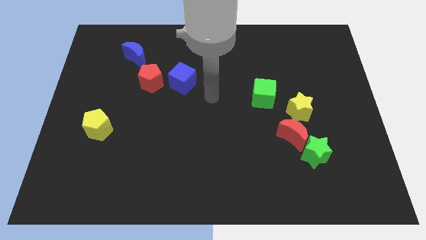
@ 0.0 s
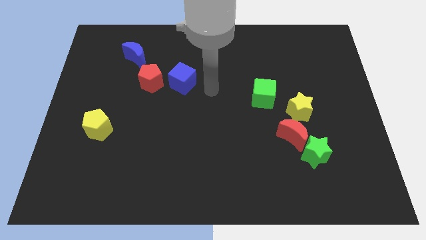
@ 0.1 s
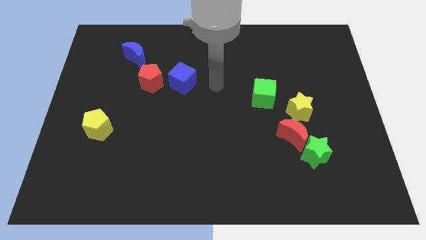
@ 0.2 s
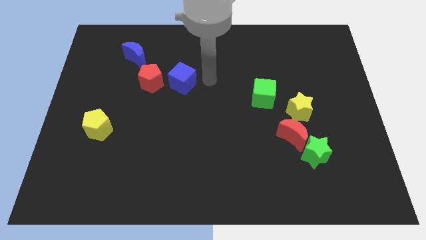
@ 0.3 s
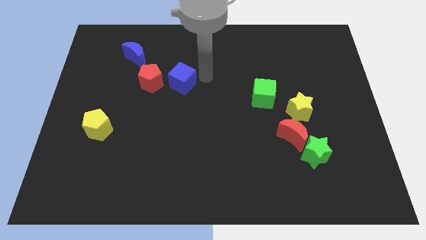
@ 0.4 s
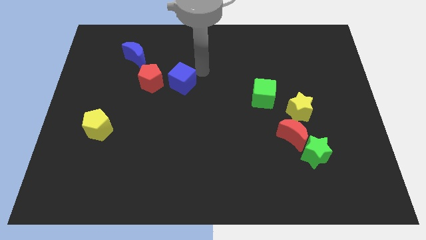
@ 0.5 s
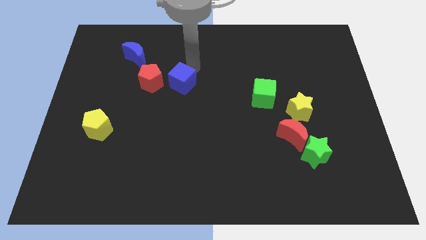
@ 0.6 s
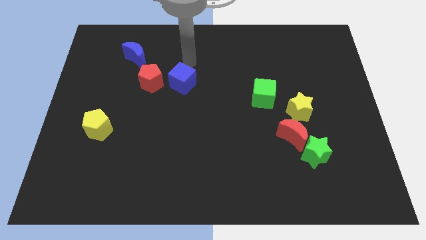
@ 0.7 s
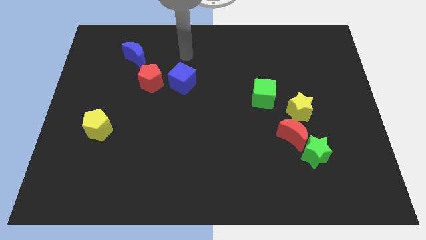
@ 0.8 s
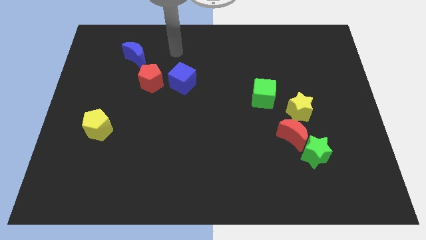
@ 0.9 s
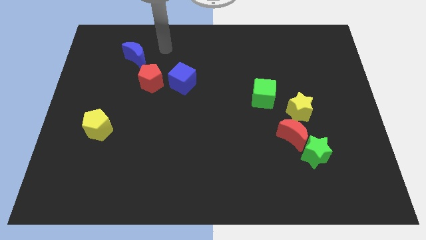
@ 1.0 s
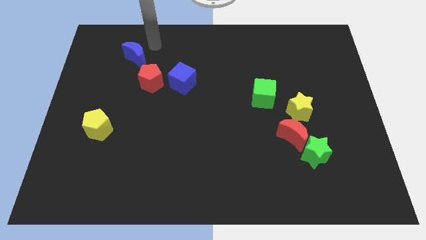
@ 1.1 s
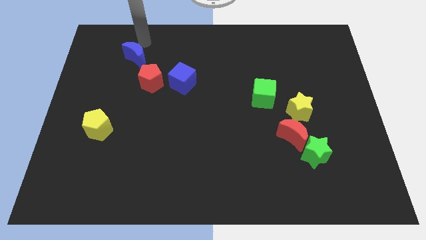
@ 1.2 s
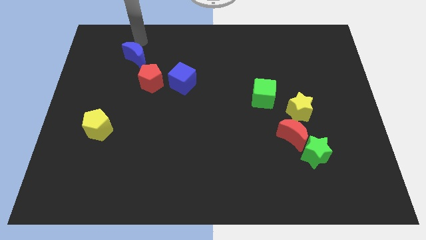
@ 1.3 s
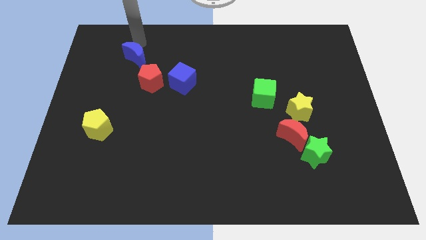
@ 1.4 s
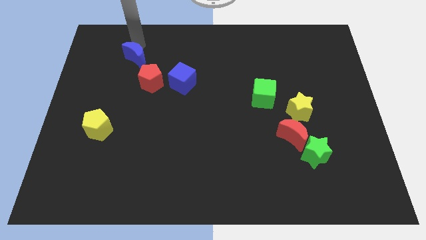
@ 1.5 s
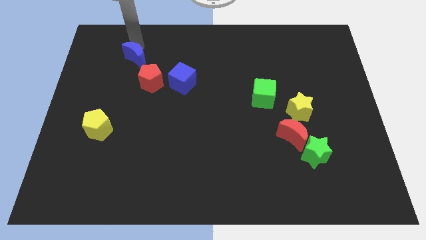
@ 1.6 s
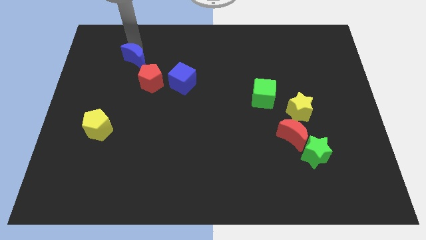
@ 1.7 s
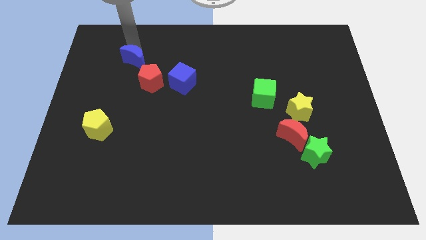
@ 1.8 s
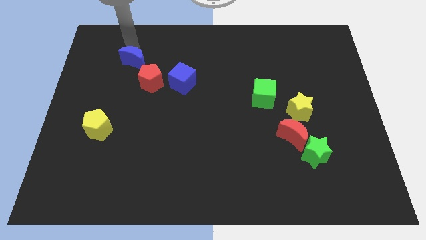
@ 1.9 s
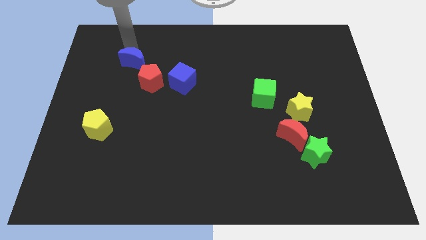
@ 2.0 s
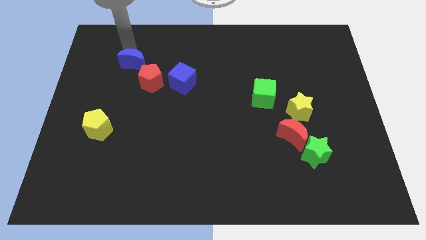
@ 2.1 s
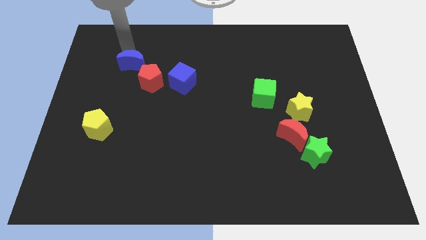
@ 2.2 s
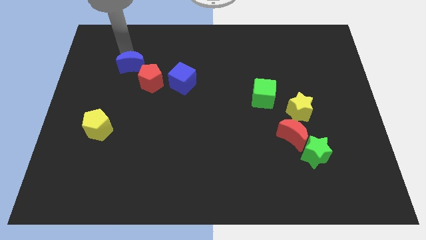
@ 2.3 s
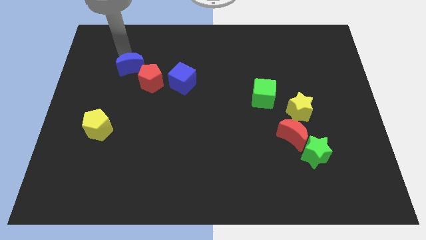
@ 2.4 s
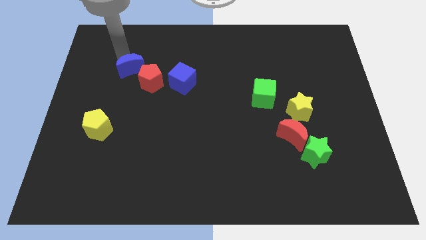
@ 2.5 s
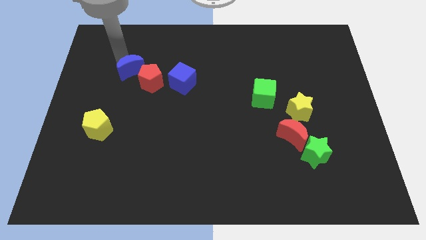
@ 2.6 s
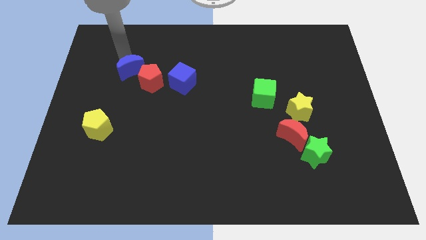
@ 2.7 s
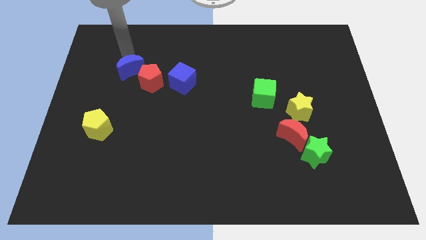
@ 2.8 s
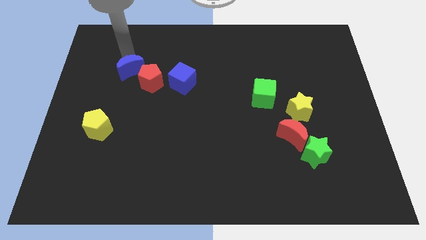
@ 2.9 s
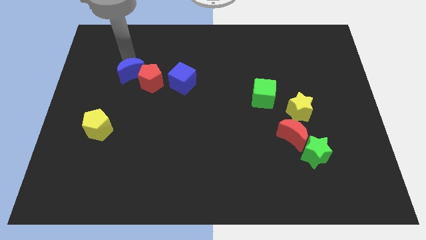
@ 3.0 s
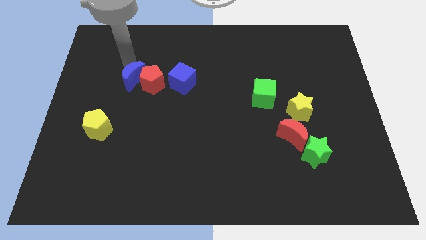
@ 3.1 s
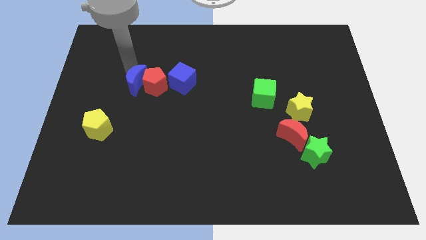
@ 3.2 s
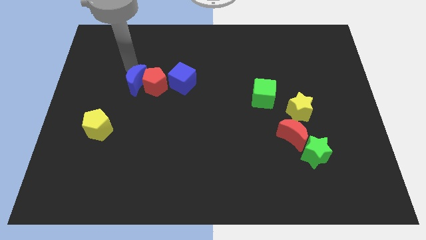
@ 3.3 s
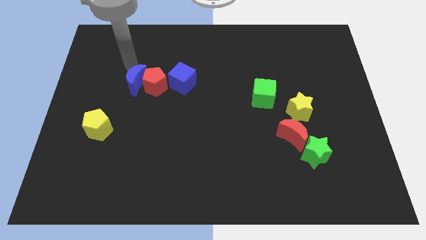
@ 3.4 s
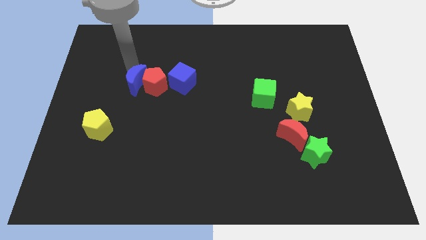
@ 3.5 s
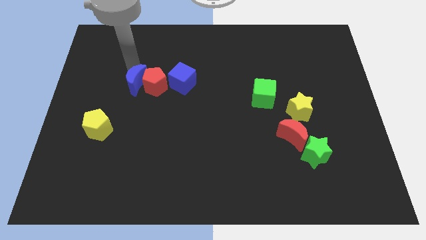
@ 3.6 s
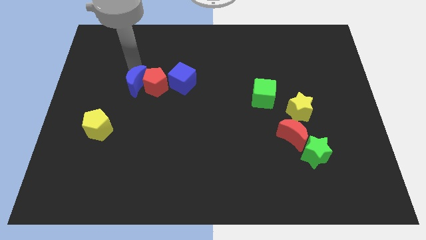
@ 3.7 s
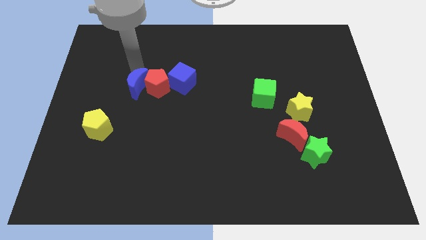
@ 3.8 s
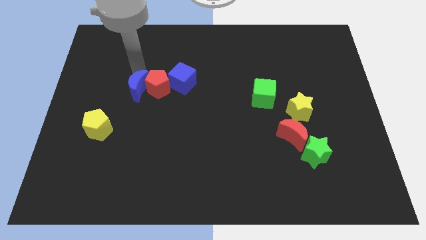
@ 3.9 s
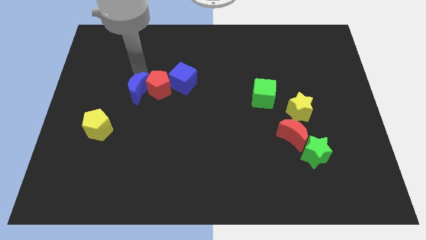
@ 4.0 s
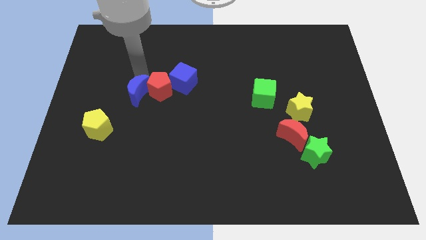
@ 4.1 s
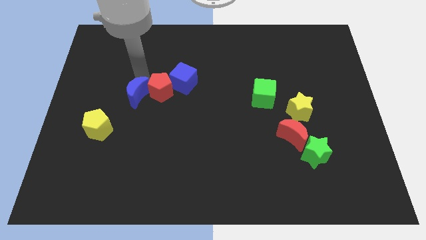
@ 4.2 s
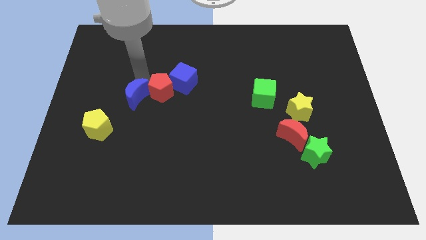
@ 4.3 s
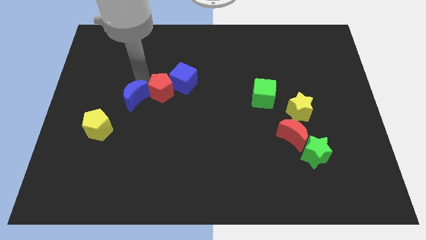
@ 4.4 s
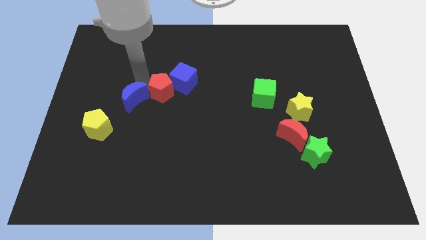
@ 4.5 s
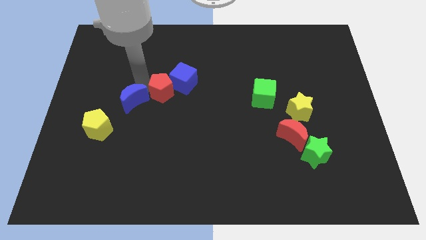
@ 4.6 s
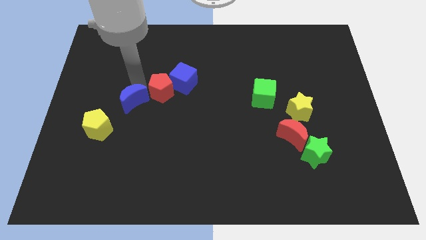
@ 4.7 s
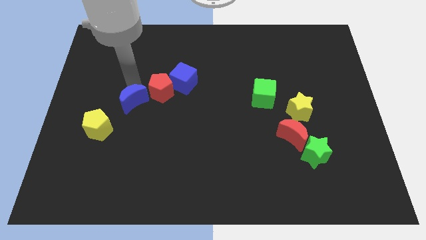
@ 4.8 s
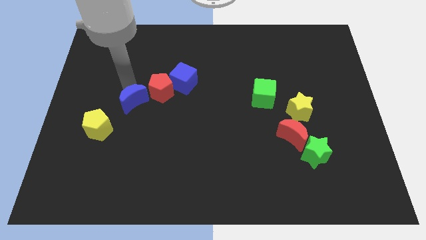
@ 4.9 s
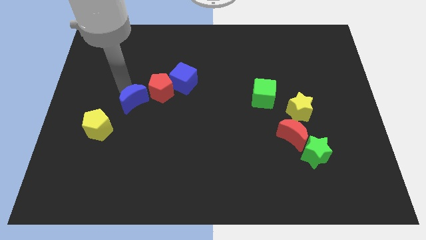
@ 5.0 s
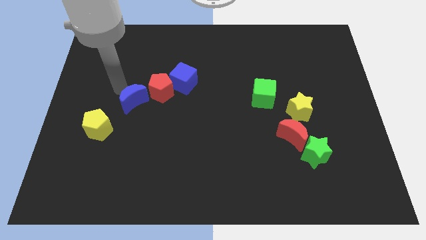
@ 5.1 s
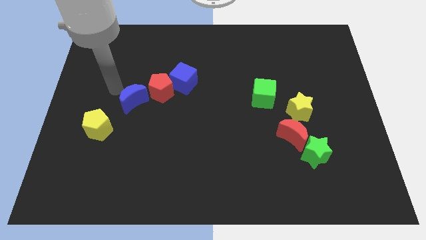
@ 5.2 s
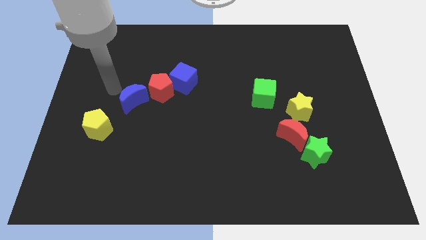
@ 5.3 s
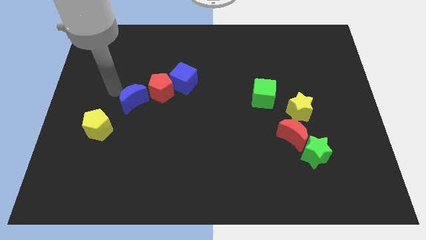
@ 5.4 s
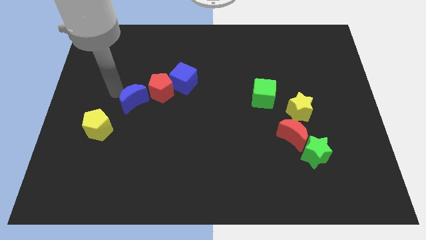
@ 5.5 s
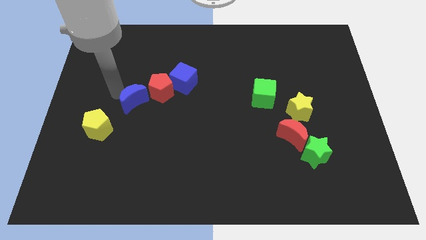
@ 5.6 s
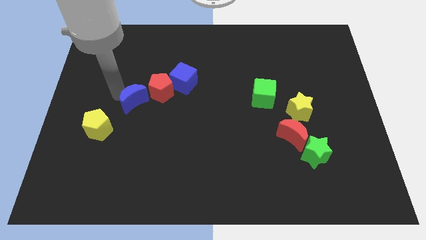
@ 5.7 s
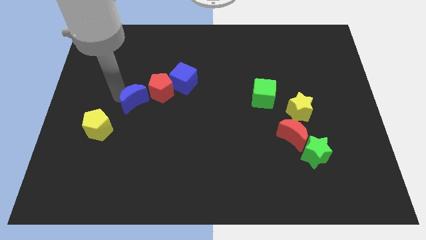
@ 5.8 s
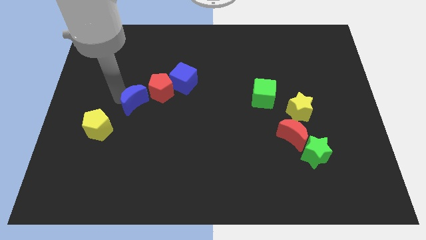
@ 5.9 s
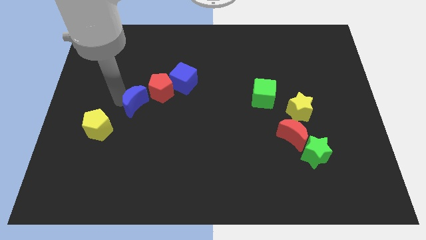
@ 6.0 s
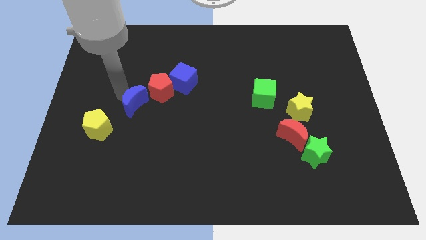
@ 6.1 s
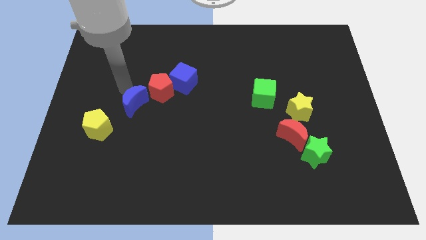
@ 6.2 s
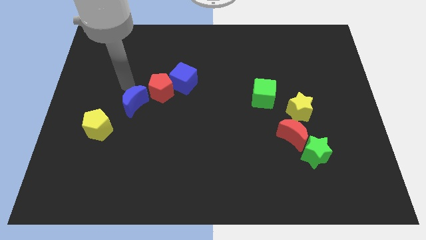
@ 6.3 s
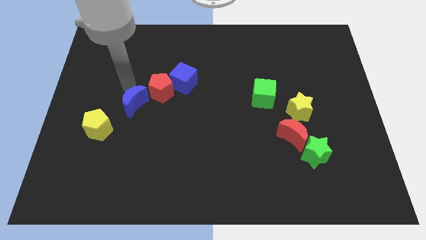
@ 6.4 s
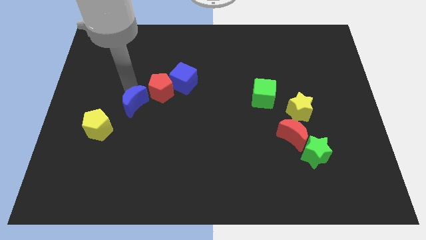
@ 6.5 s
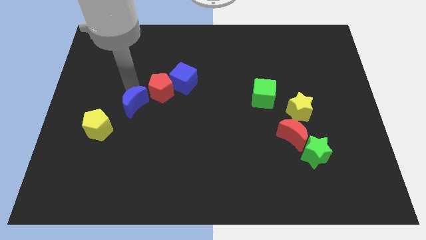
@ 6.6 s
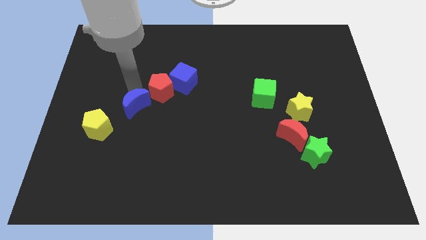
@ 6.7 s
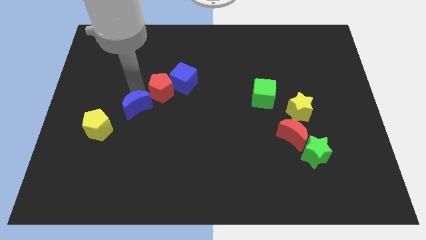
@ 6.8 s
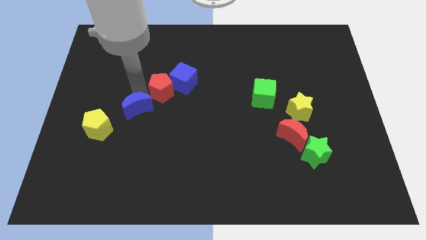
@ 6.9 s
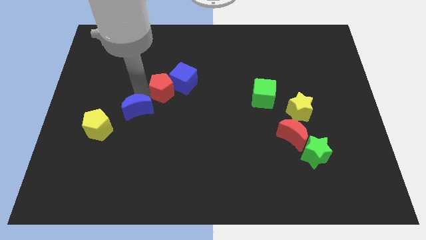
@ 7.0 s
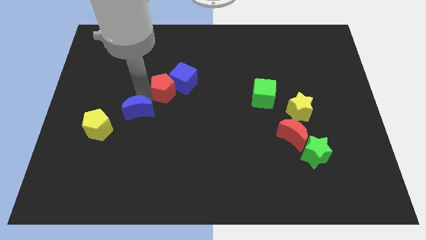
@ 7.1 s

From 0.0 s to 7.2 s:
move the blue moon to the right of the yellow pentagon

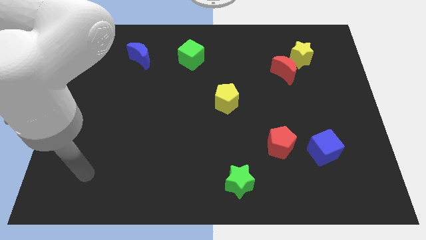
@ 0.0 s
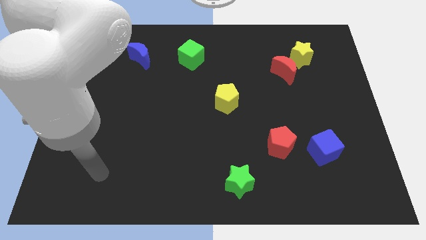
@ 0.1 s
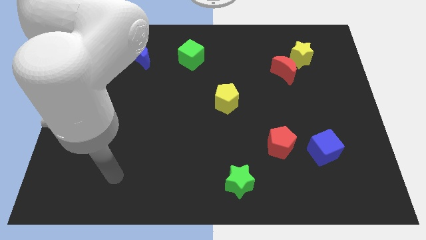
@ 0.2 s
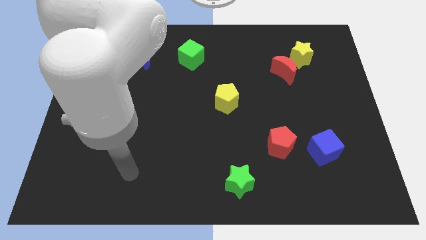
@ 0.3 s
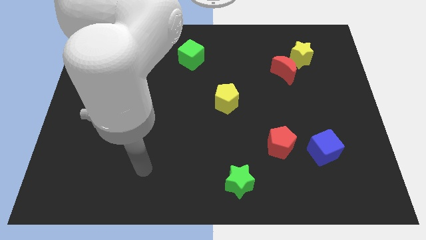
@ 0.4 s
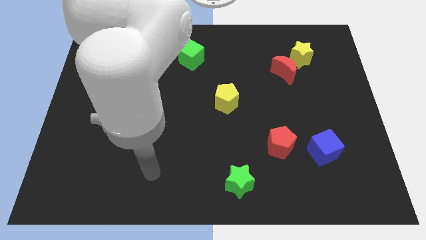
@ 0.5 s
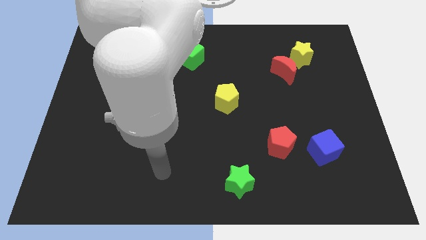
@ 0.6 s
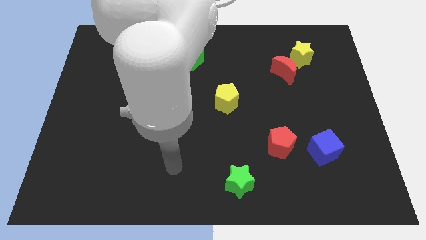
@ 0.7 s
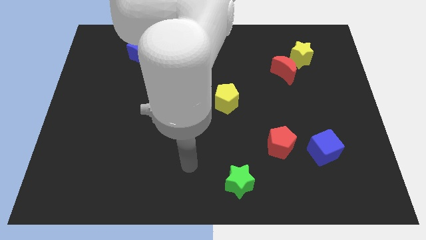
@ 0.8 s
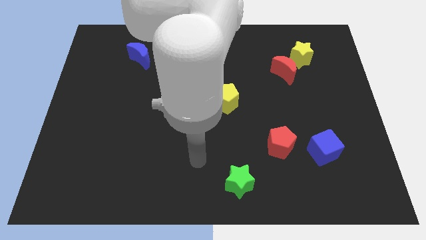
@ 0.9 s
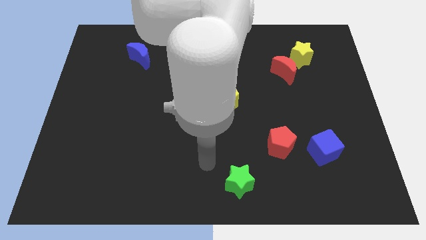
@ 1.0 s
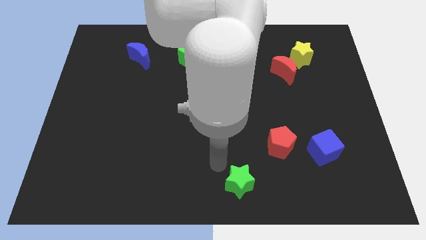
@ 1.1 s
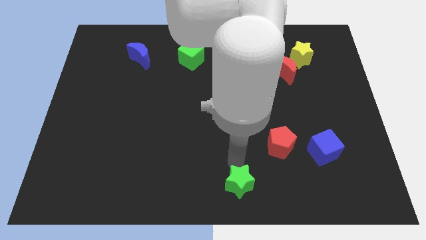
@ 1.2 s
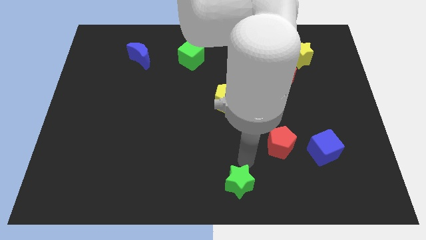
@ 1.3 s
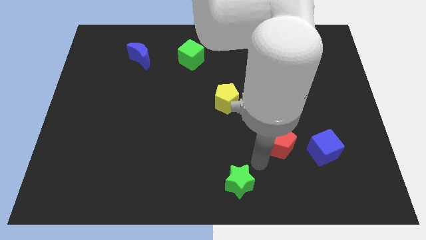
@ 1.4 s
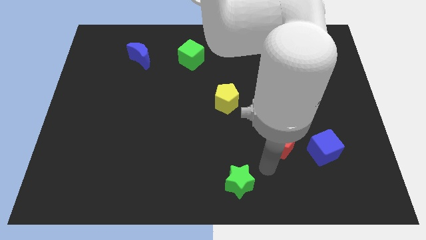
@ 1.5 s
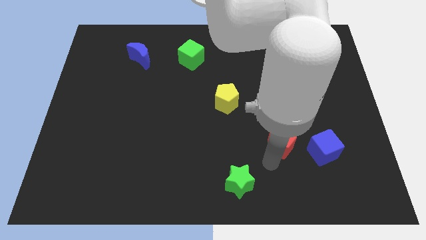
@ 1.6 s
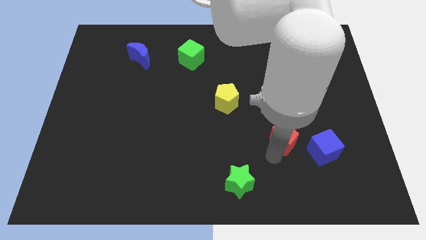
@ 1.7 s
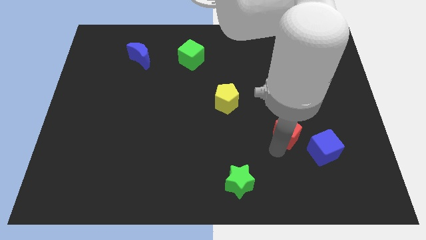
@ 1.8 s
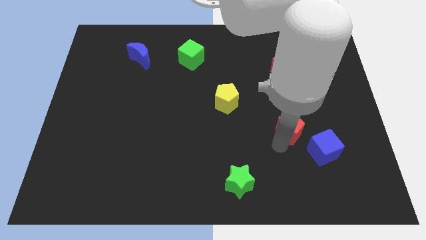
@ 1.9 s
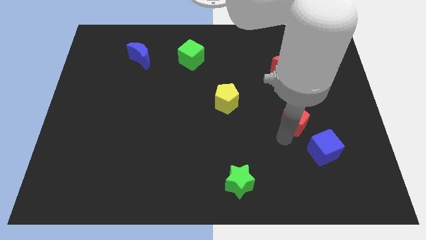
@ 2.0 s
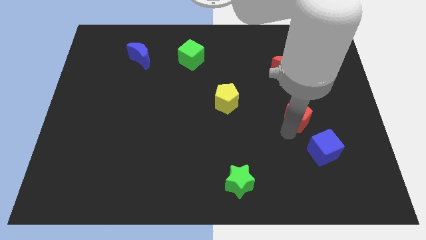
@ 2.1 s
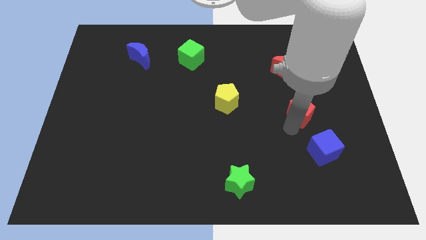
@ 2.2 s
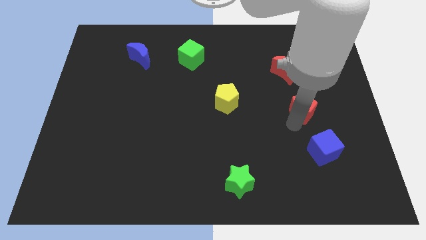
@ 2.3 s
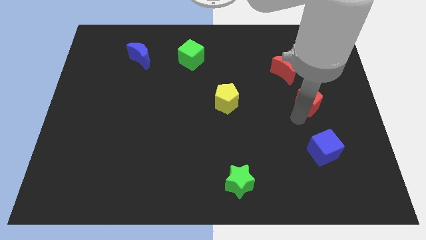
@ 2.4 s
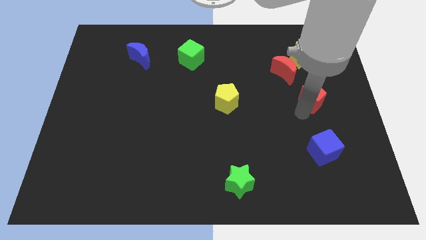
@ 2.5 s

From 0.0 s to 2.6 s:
move the red pentagon to the bottom right of the red moon
